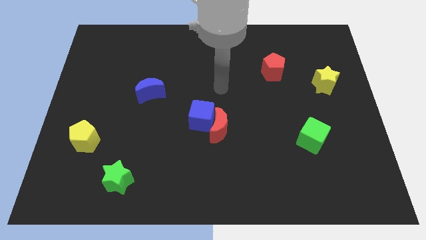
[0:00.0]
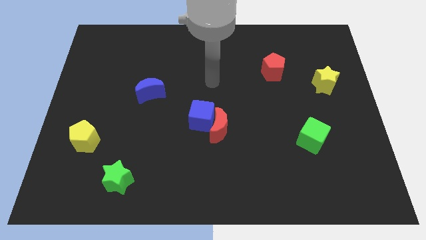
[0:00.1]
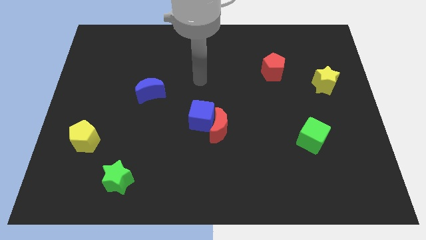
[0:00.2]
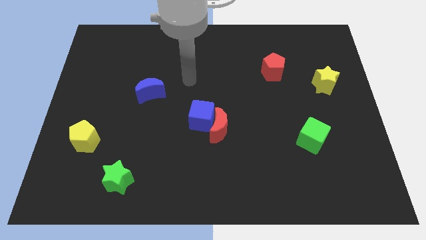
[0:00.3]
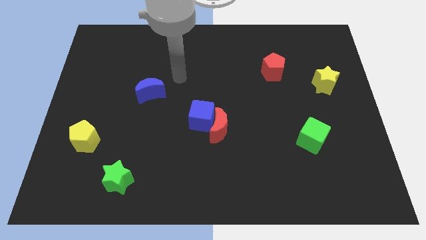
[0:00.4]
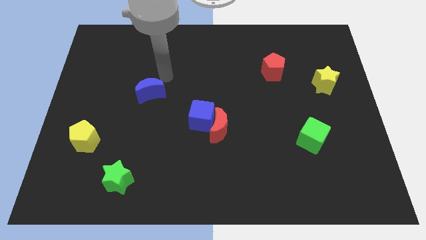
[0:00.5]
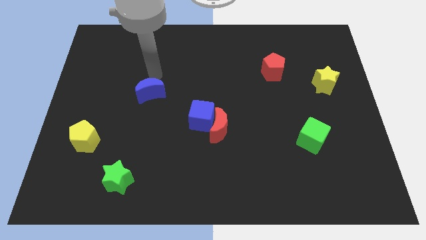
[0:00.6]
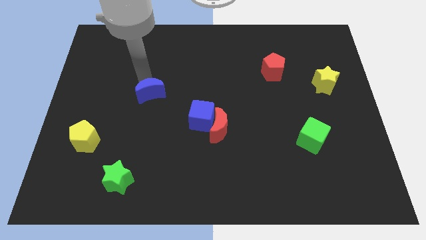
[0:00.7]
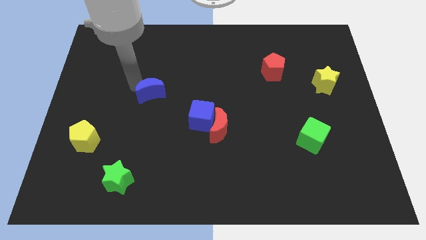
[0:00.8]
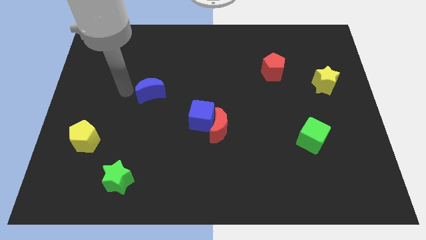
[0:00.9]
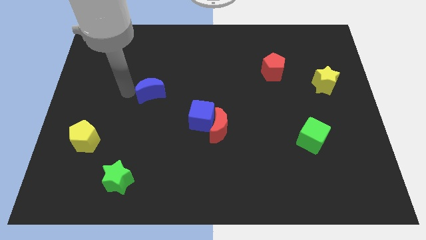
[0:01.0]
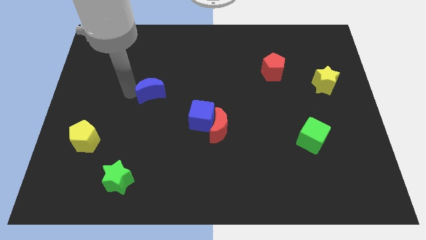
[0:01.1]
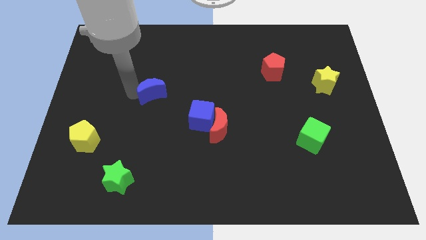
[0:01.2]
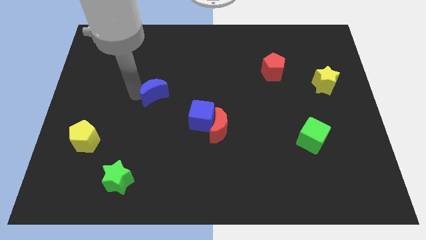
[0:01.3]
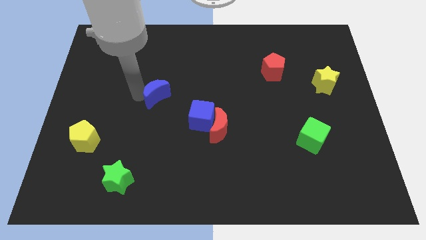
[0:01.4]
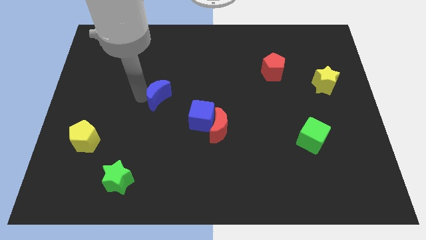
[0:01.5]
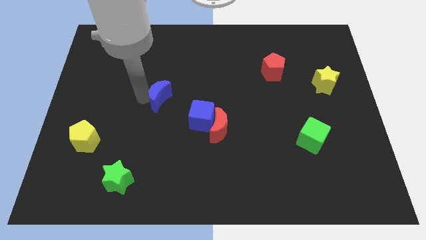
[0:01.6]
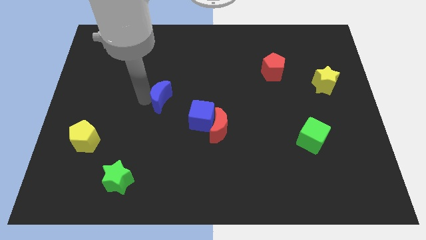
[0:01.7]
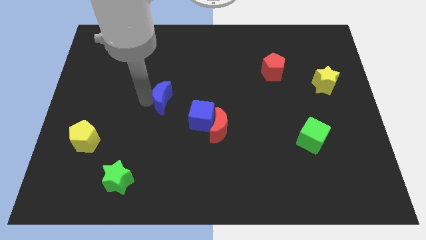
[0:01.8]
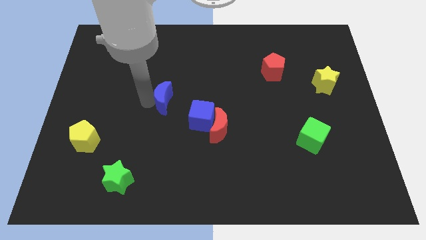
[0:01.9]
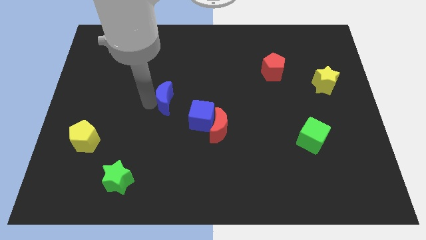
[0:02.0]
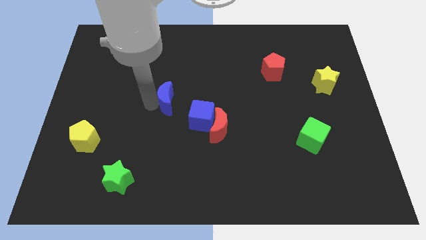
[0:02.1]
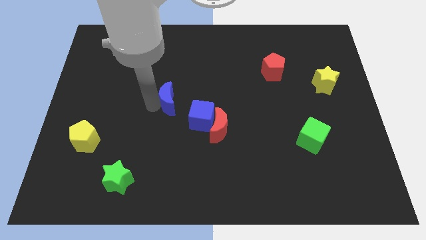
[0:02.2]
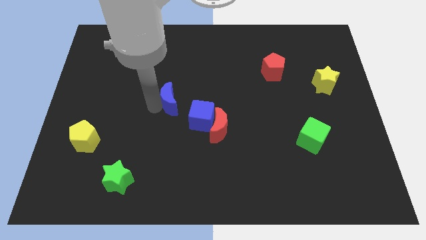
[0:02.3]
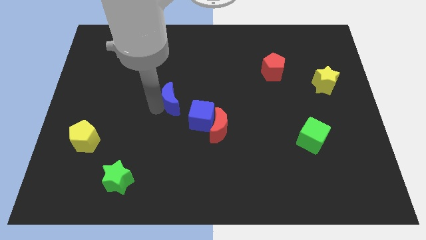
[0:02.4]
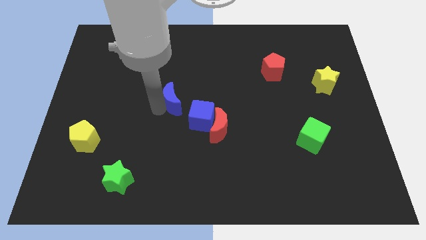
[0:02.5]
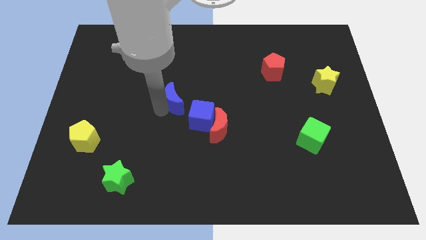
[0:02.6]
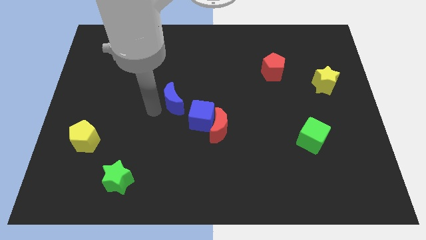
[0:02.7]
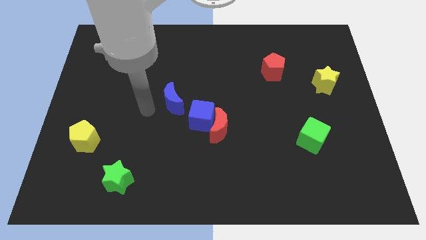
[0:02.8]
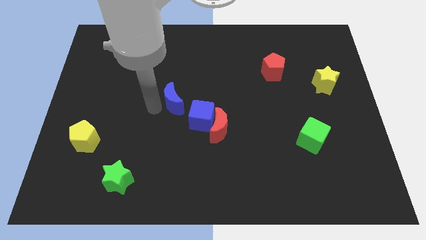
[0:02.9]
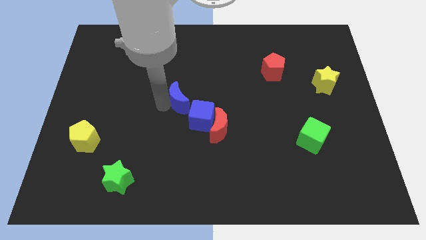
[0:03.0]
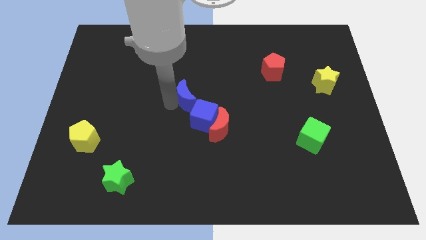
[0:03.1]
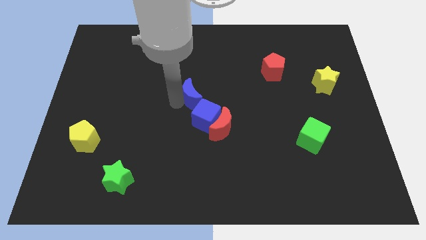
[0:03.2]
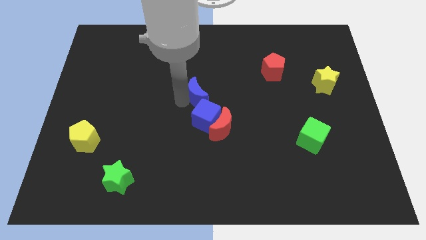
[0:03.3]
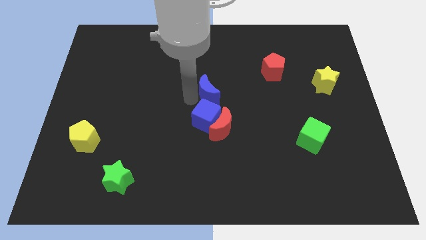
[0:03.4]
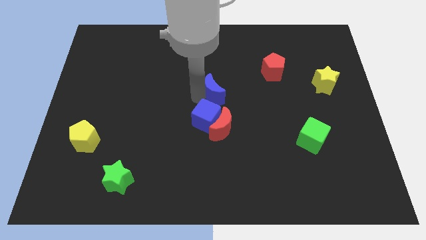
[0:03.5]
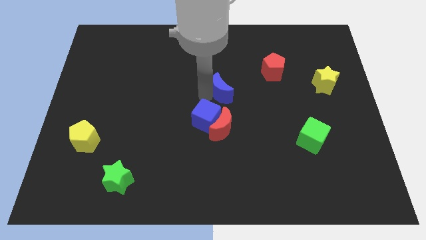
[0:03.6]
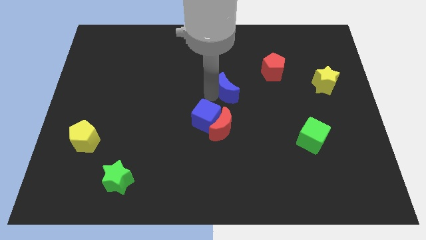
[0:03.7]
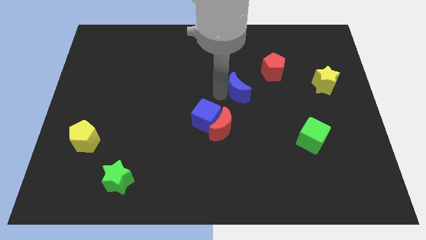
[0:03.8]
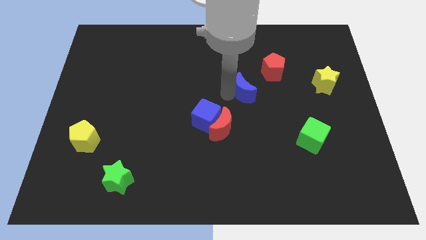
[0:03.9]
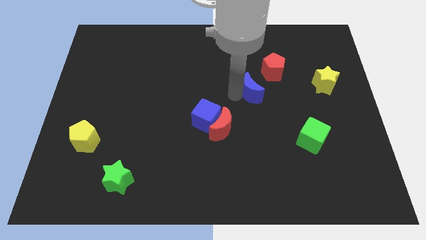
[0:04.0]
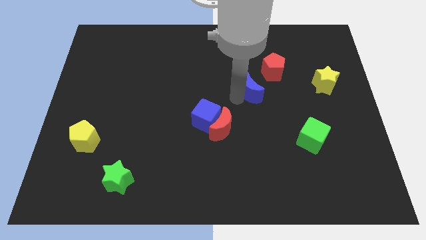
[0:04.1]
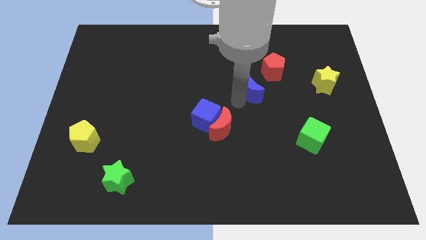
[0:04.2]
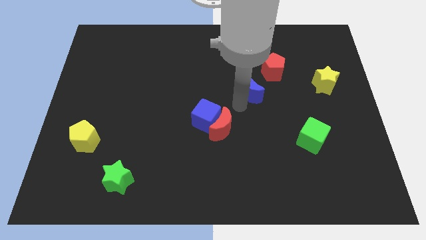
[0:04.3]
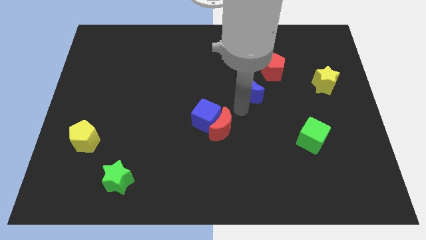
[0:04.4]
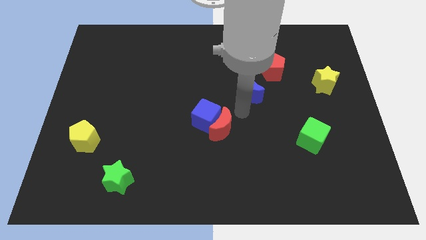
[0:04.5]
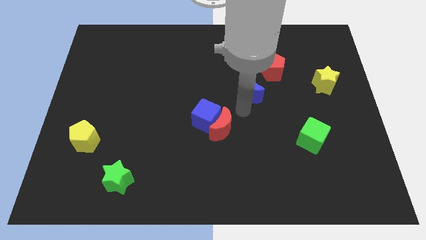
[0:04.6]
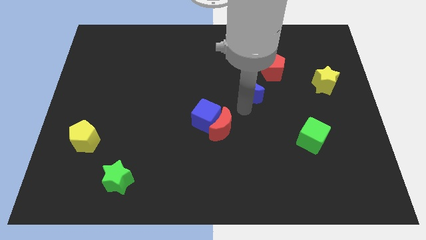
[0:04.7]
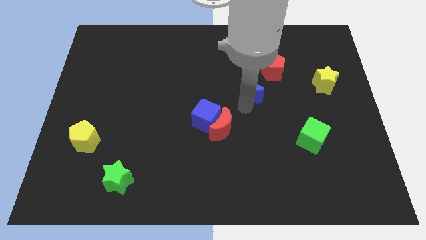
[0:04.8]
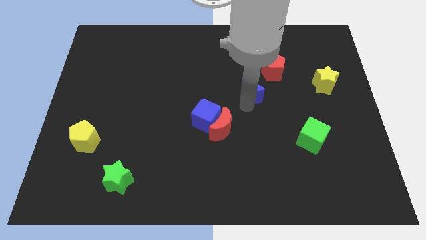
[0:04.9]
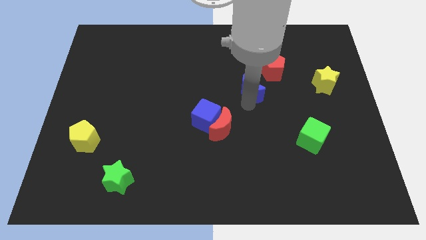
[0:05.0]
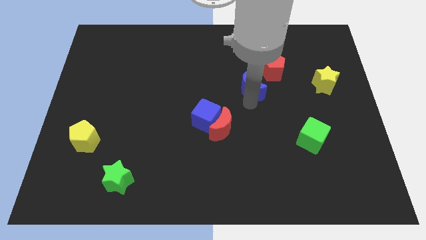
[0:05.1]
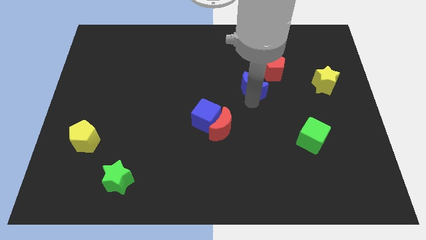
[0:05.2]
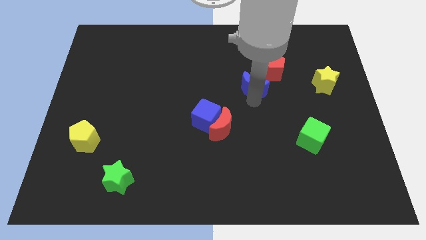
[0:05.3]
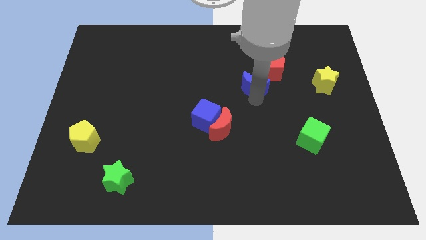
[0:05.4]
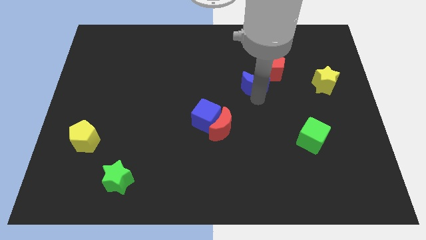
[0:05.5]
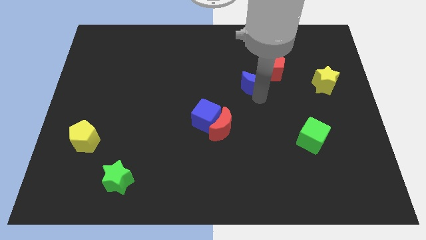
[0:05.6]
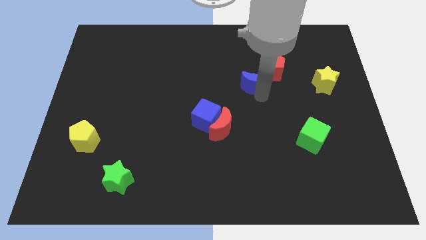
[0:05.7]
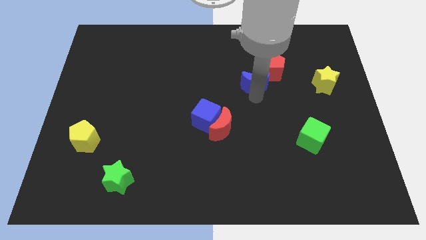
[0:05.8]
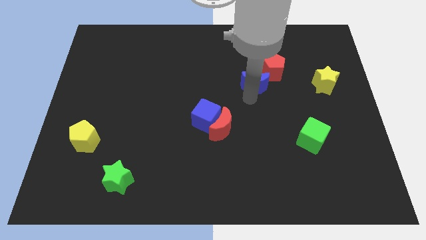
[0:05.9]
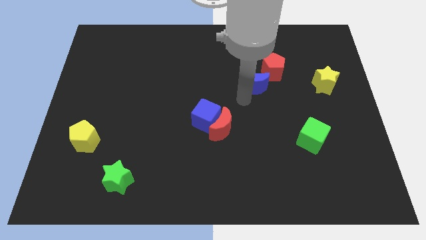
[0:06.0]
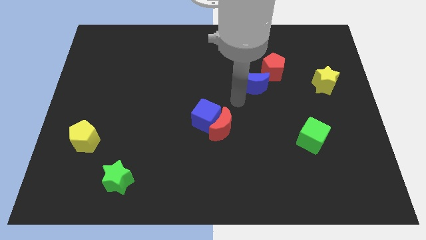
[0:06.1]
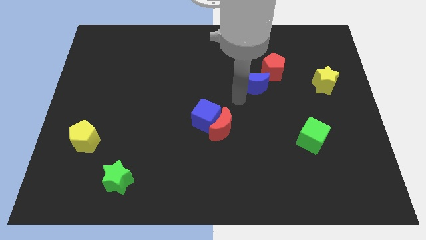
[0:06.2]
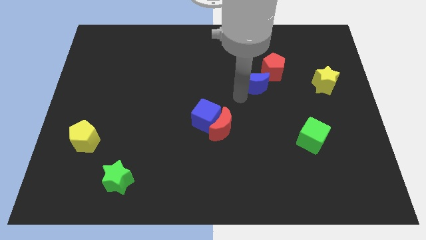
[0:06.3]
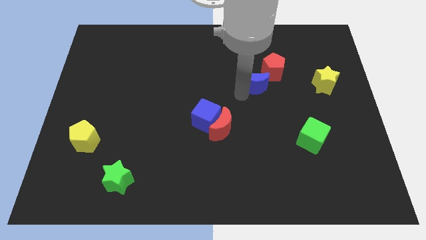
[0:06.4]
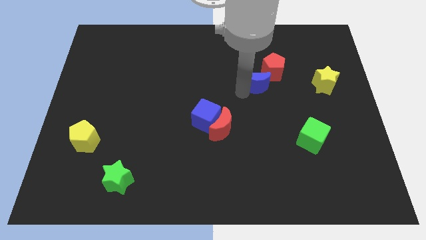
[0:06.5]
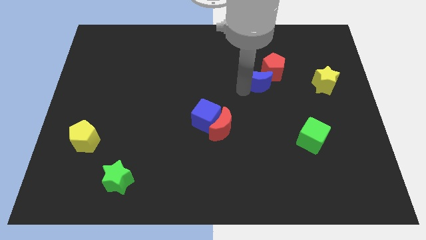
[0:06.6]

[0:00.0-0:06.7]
push the blue moon close to the red pentagon

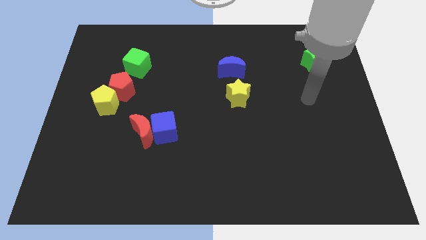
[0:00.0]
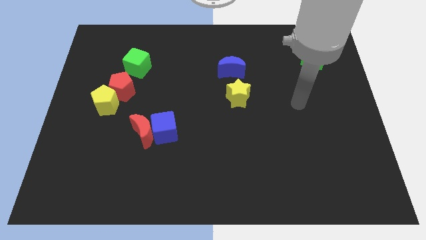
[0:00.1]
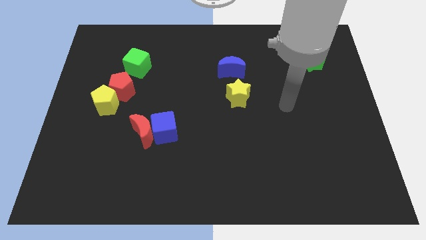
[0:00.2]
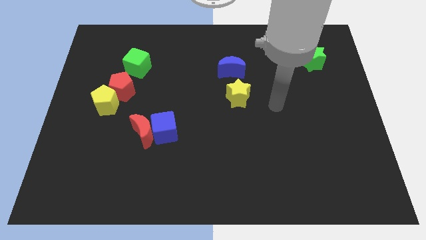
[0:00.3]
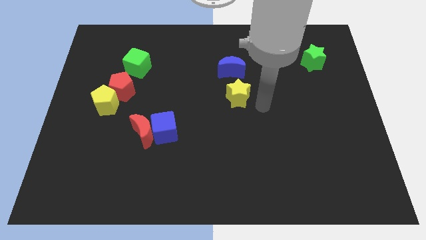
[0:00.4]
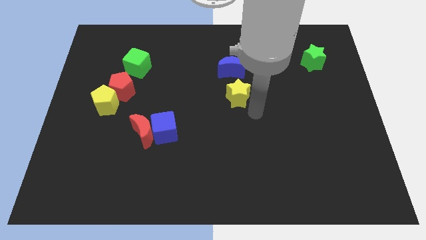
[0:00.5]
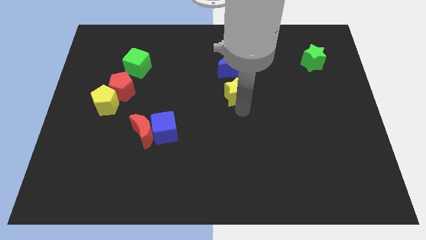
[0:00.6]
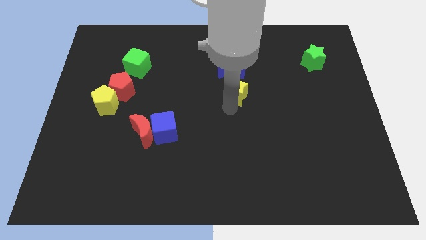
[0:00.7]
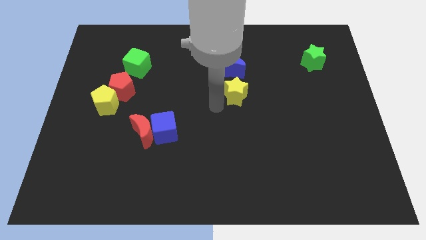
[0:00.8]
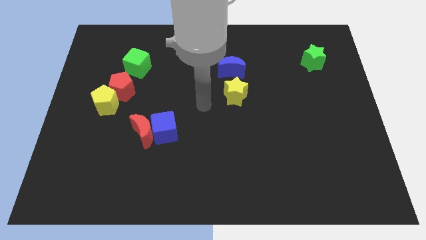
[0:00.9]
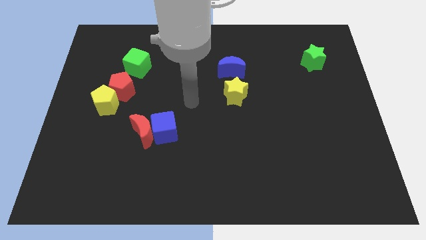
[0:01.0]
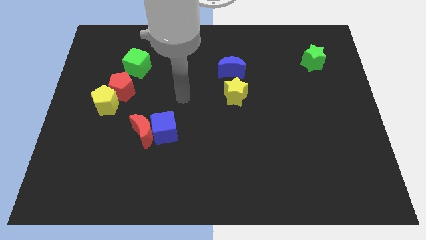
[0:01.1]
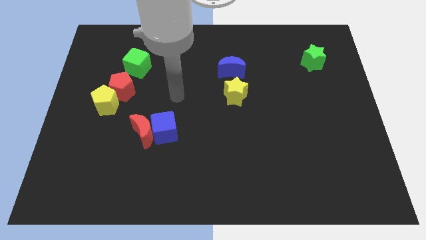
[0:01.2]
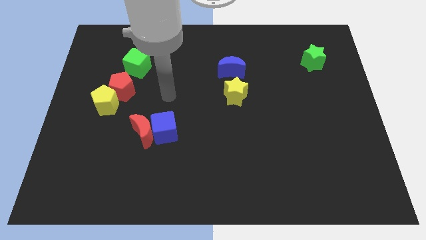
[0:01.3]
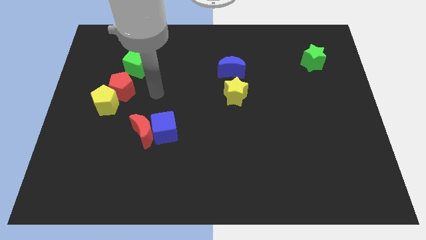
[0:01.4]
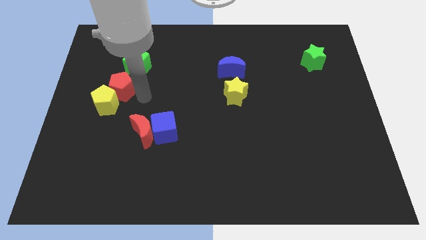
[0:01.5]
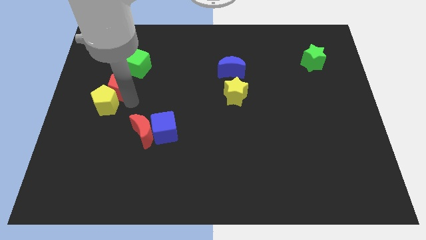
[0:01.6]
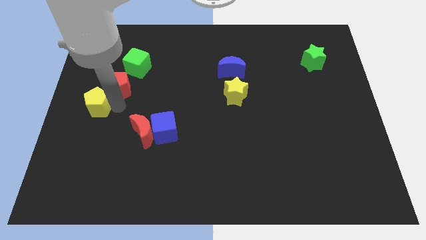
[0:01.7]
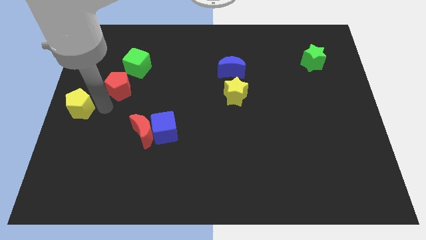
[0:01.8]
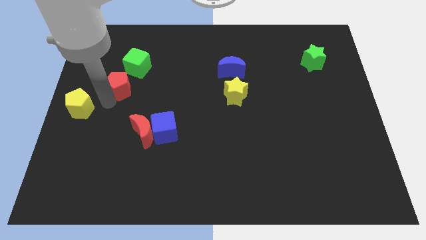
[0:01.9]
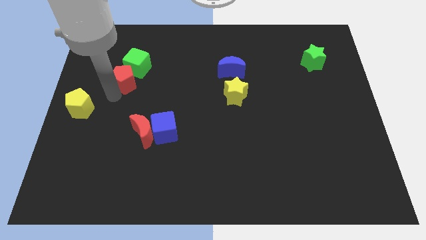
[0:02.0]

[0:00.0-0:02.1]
slide the red pentagon towards the green cube
